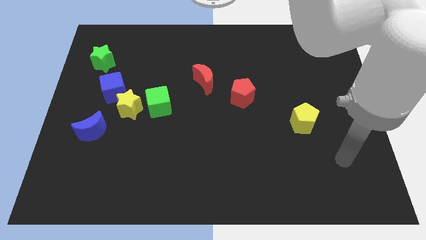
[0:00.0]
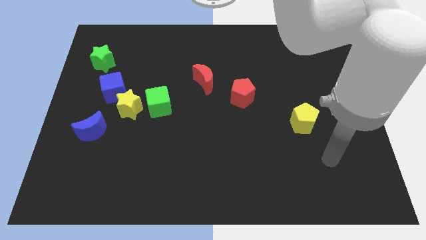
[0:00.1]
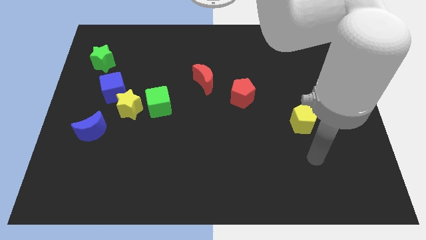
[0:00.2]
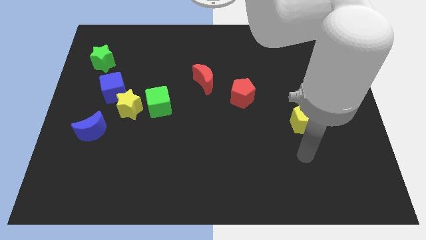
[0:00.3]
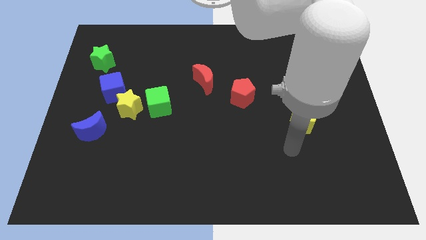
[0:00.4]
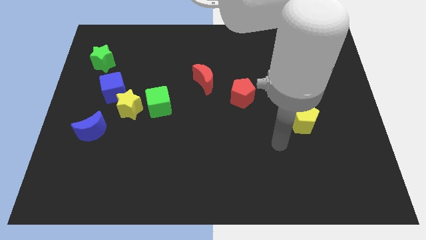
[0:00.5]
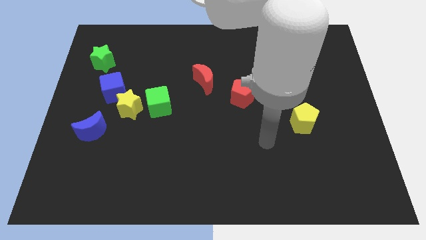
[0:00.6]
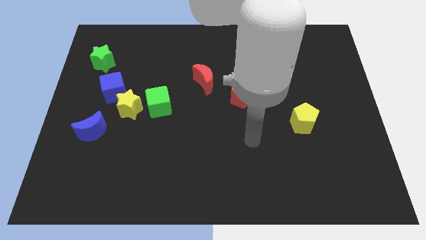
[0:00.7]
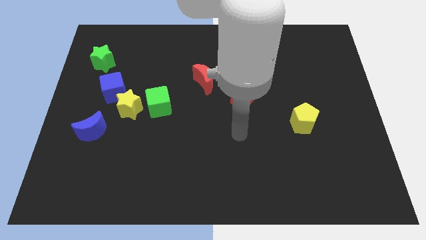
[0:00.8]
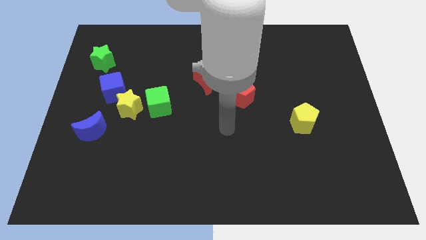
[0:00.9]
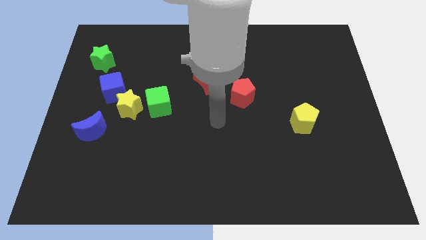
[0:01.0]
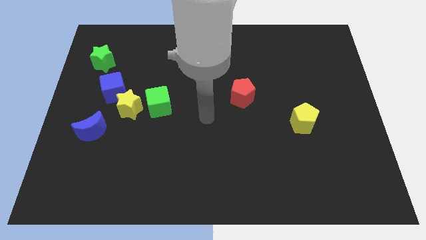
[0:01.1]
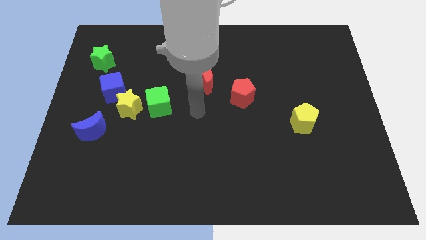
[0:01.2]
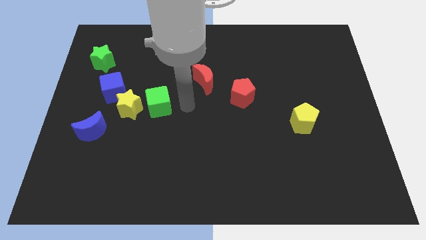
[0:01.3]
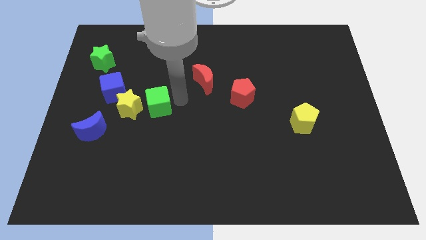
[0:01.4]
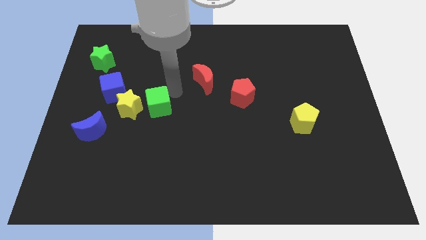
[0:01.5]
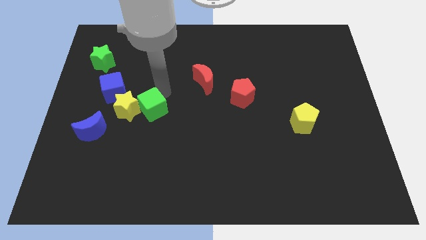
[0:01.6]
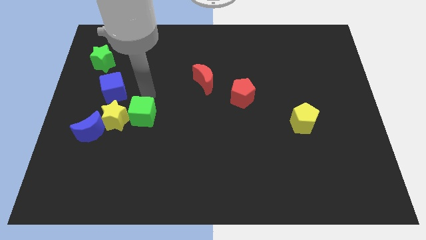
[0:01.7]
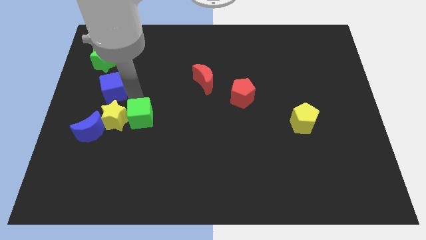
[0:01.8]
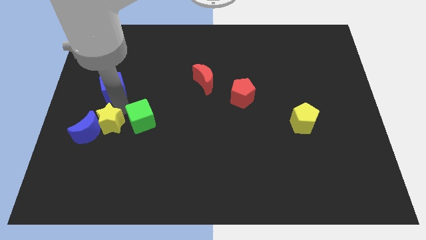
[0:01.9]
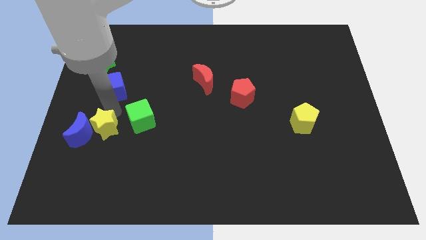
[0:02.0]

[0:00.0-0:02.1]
pull the blue cube apart from the yellow star

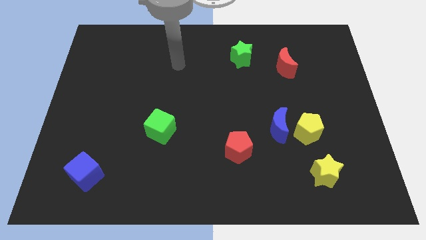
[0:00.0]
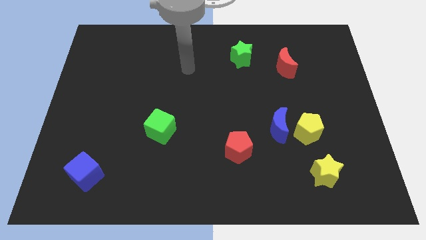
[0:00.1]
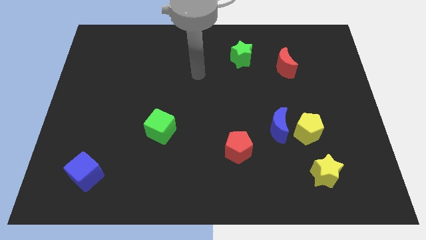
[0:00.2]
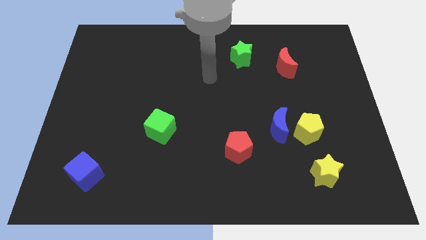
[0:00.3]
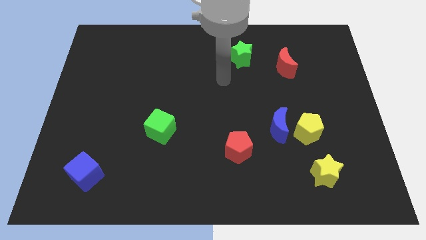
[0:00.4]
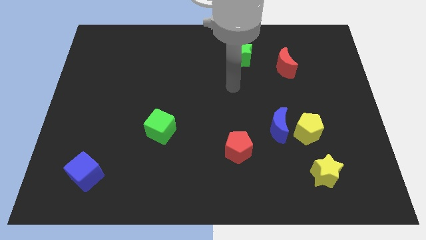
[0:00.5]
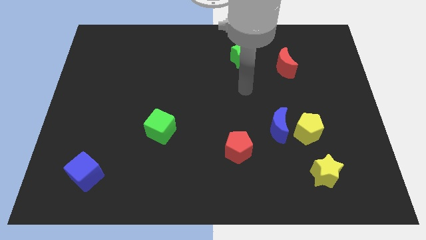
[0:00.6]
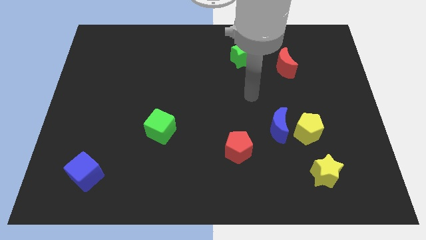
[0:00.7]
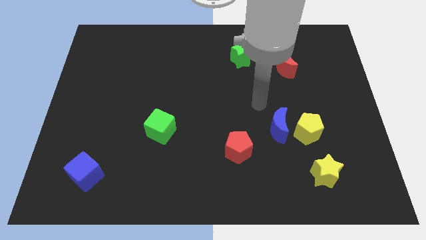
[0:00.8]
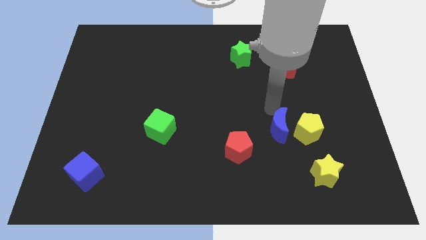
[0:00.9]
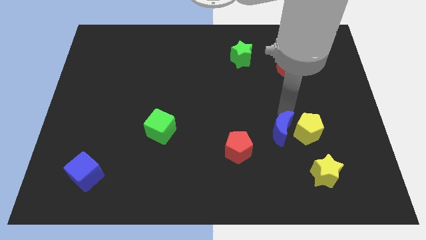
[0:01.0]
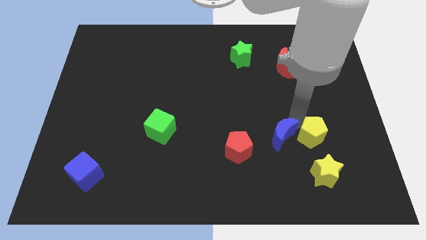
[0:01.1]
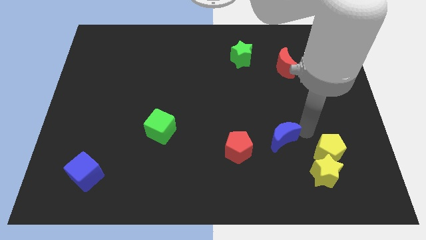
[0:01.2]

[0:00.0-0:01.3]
move the blue moon away from the yellow pentagon

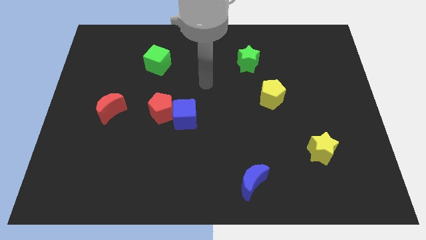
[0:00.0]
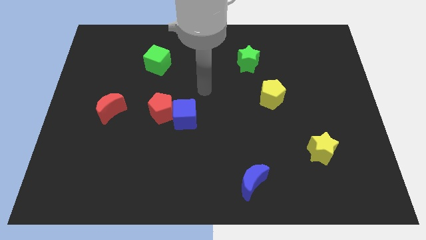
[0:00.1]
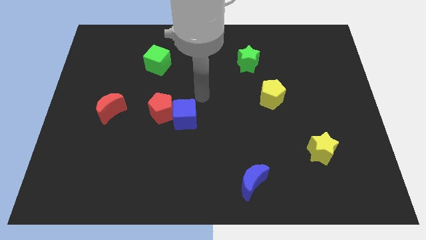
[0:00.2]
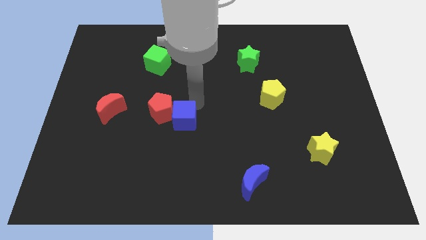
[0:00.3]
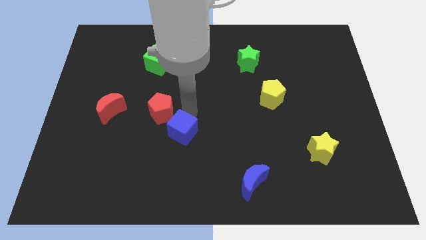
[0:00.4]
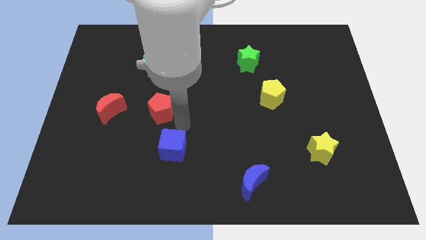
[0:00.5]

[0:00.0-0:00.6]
move the red pentagon away from the blue cube

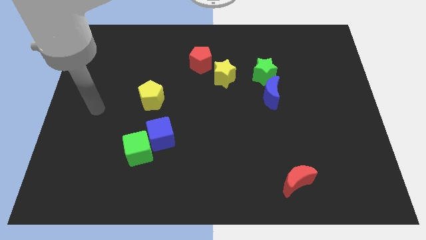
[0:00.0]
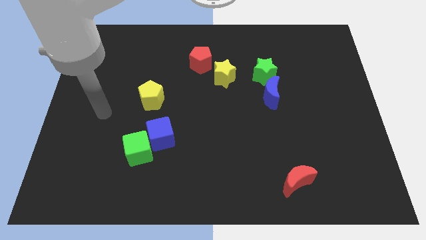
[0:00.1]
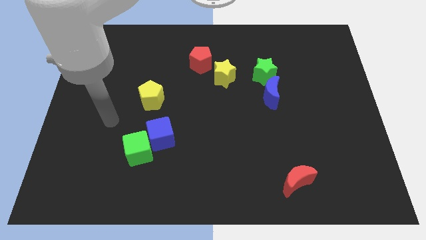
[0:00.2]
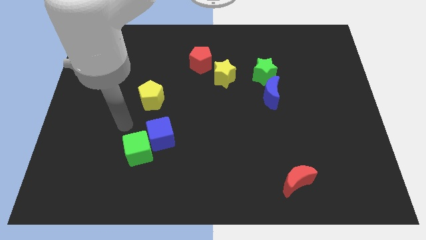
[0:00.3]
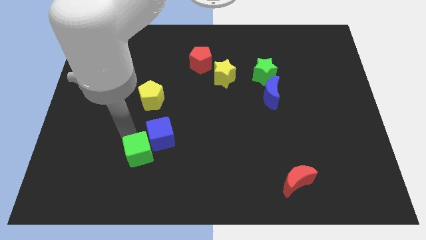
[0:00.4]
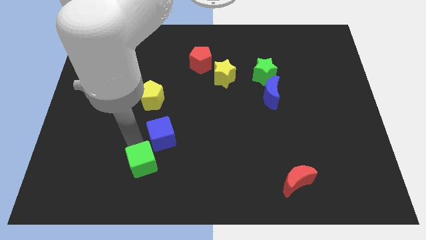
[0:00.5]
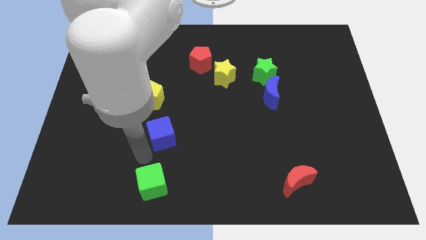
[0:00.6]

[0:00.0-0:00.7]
separate the blue cube from the green cube

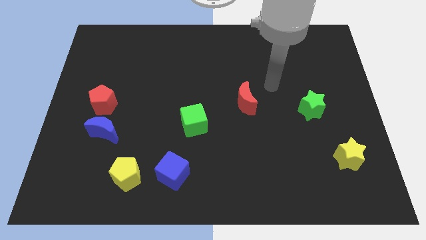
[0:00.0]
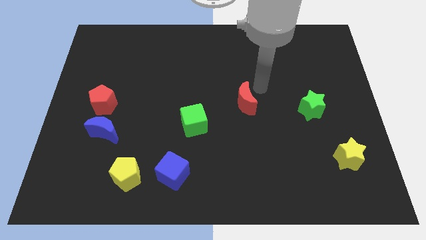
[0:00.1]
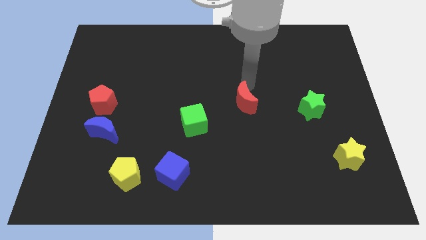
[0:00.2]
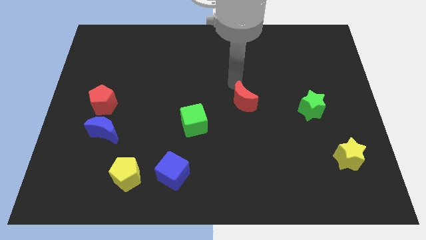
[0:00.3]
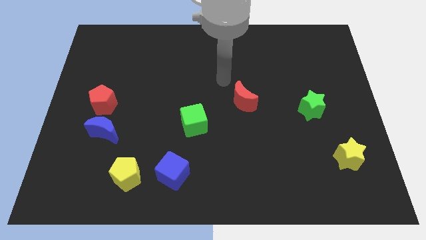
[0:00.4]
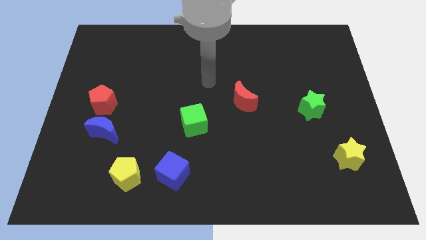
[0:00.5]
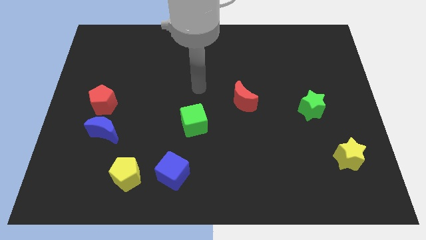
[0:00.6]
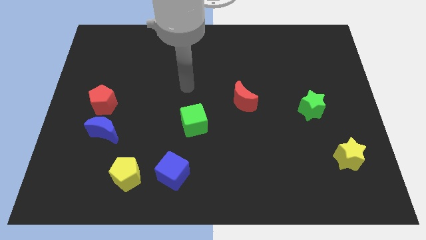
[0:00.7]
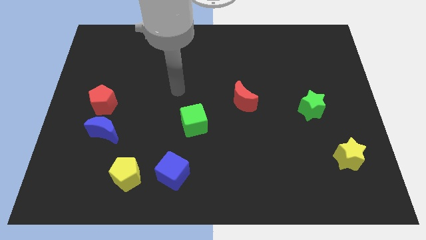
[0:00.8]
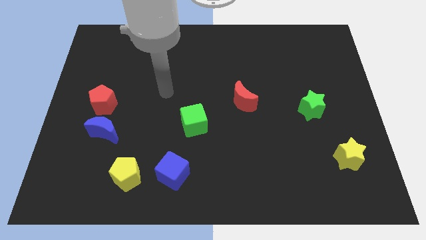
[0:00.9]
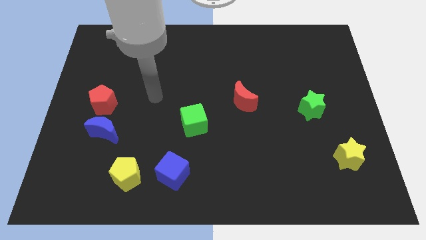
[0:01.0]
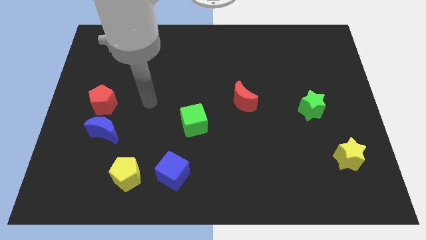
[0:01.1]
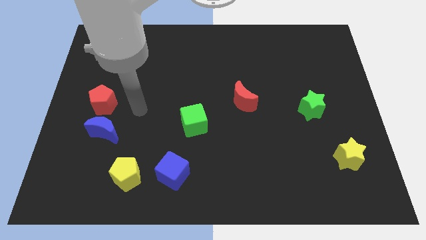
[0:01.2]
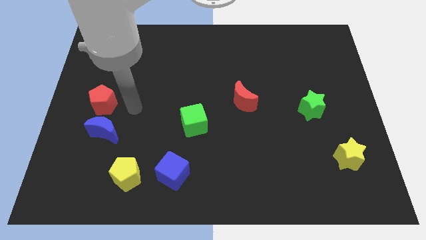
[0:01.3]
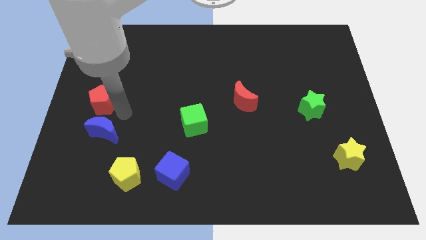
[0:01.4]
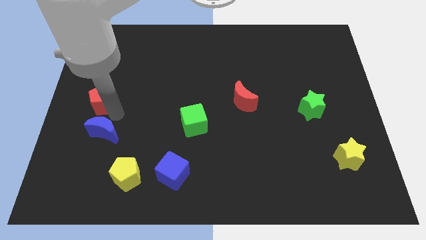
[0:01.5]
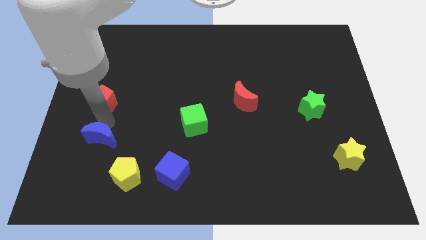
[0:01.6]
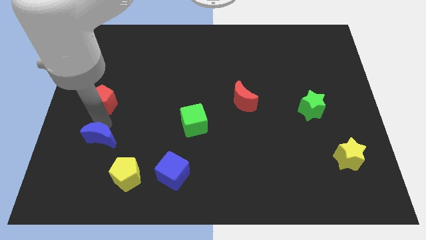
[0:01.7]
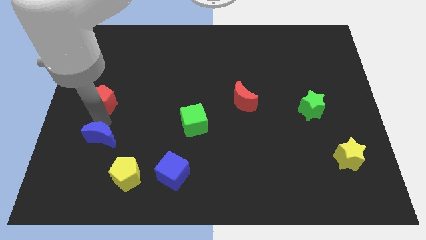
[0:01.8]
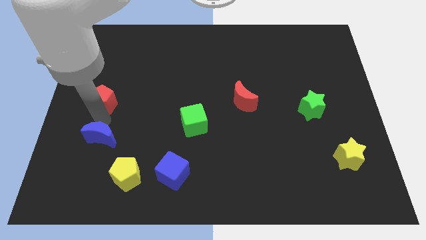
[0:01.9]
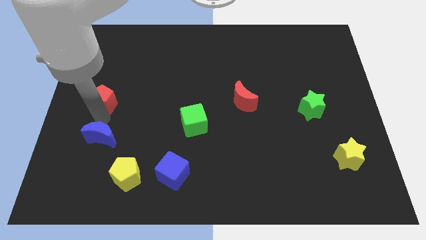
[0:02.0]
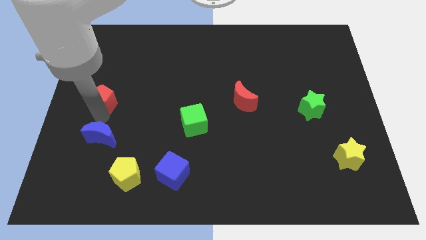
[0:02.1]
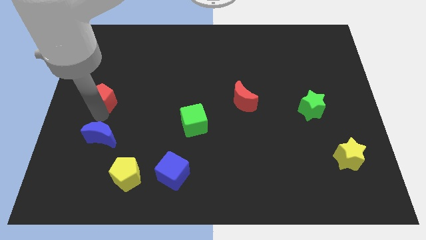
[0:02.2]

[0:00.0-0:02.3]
pull the red pentagon apart from the blue moon

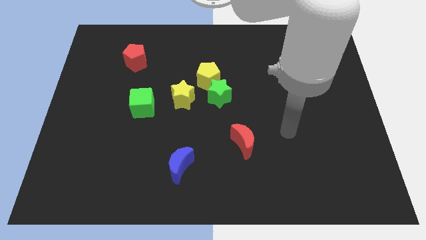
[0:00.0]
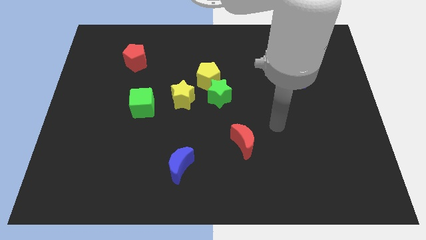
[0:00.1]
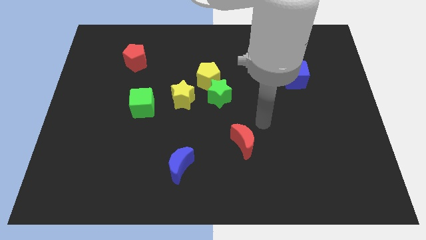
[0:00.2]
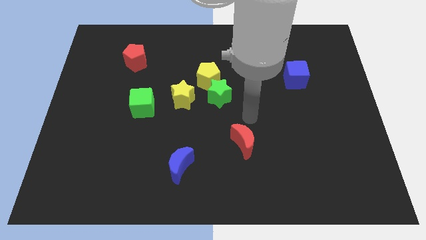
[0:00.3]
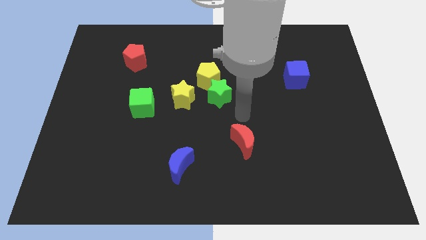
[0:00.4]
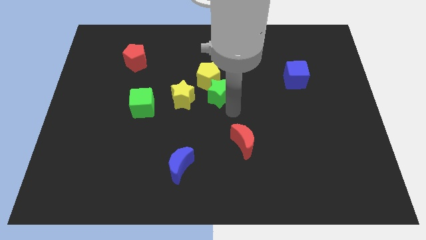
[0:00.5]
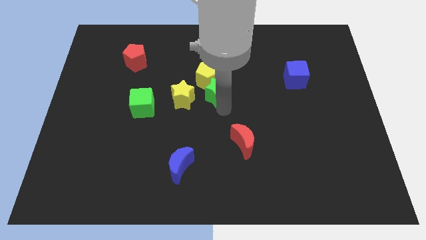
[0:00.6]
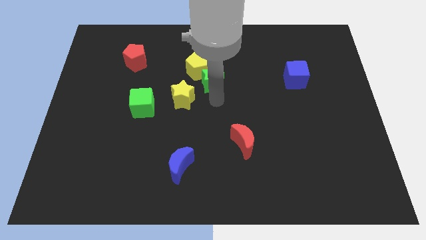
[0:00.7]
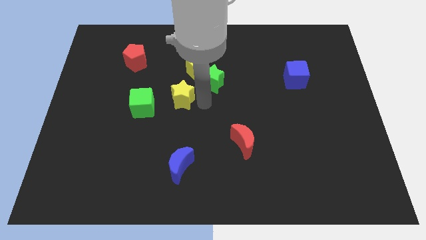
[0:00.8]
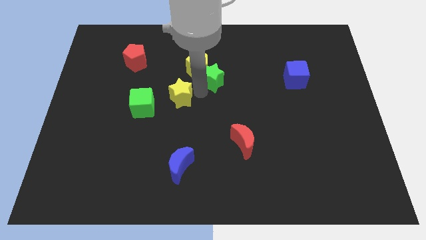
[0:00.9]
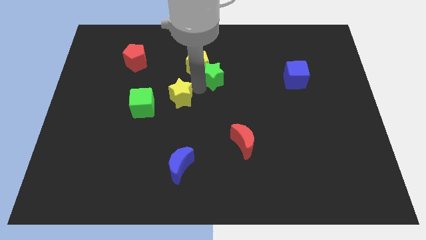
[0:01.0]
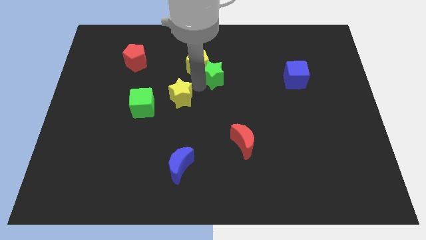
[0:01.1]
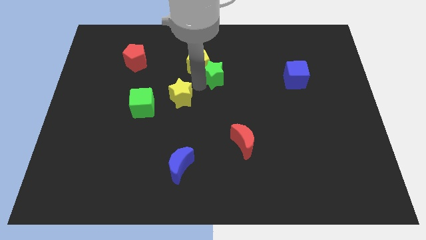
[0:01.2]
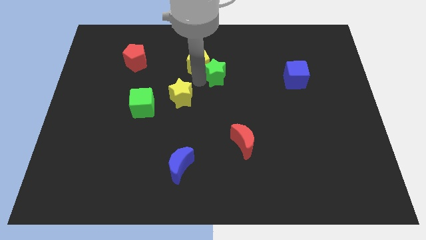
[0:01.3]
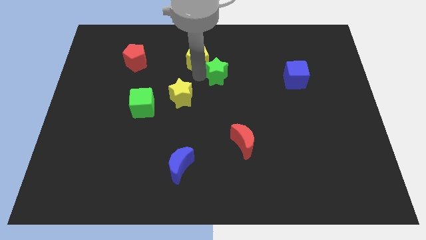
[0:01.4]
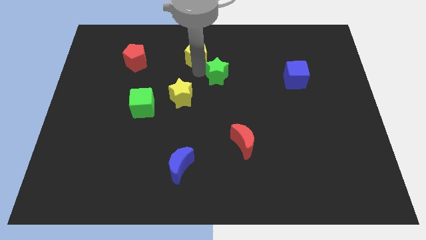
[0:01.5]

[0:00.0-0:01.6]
pull the yellow pentagon apart from the green star and yellow star

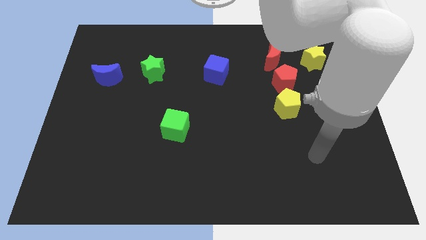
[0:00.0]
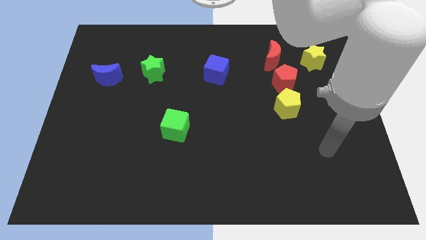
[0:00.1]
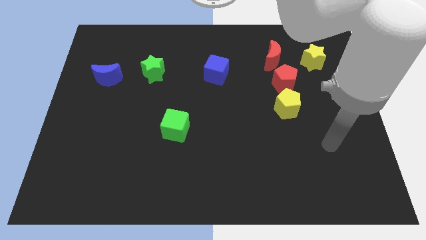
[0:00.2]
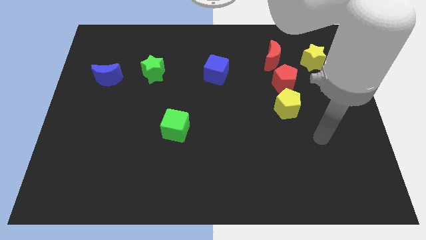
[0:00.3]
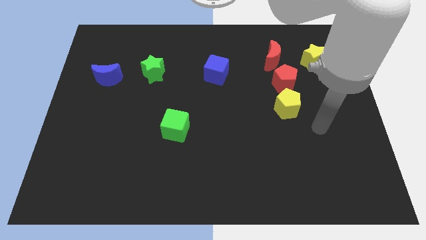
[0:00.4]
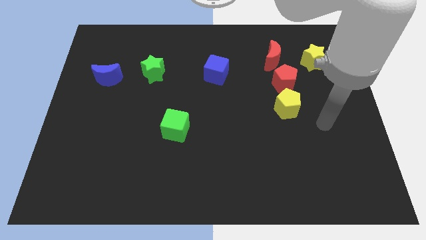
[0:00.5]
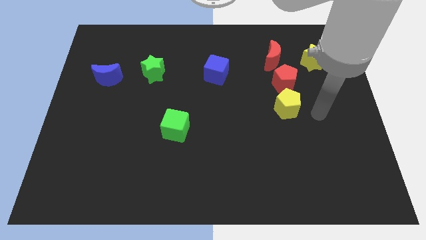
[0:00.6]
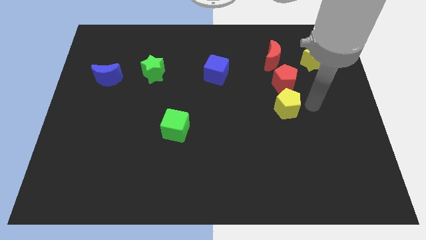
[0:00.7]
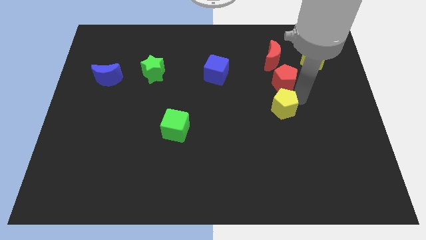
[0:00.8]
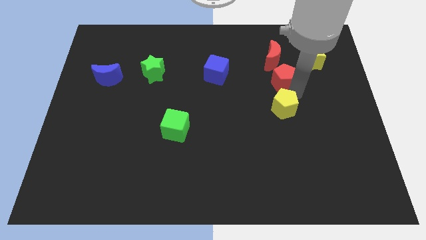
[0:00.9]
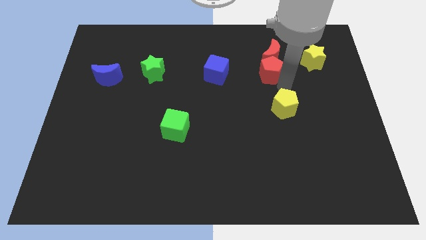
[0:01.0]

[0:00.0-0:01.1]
move the yellow pentagon away from the red pentagon
